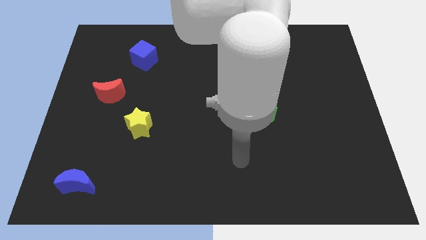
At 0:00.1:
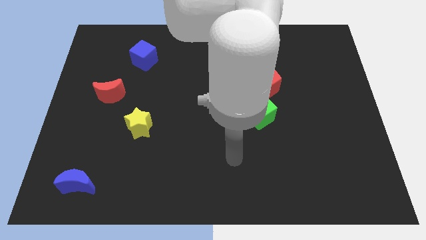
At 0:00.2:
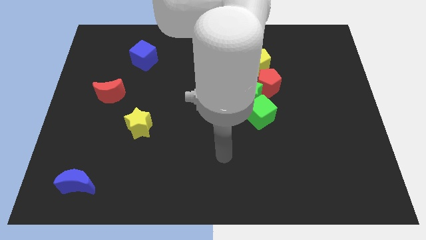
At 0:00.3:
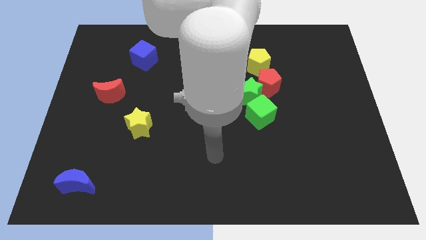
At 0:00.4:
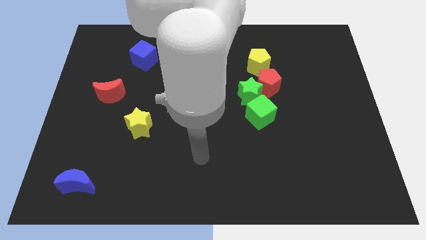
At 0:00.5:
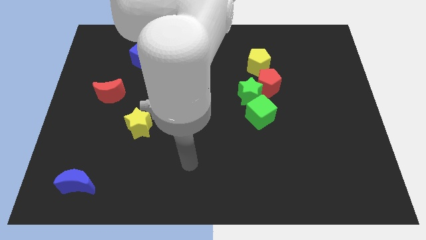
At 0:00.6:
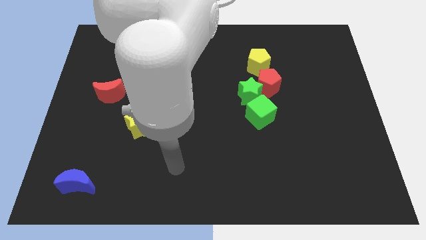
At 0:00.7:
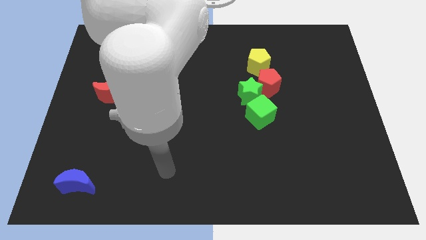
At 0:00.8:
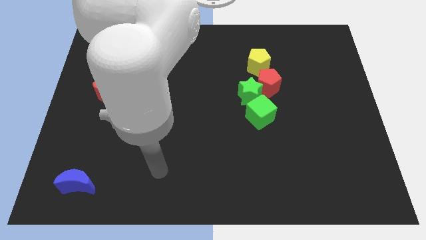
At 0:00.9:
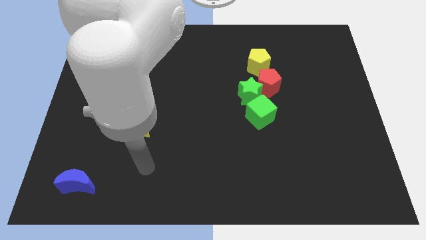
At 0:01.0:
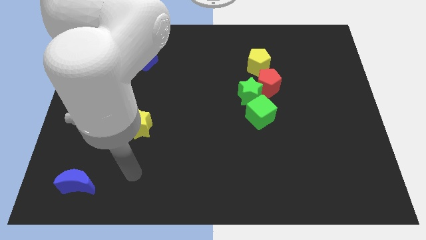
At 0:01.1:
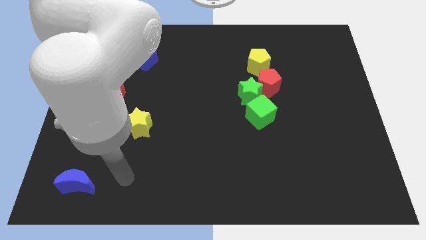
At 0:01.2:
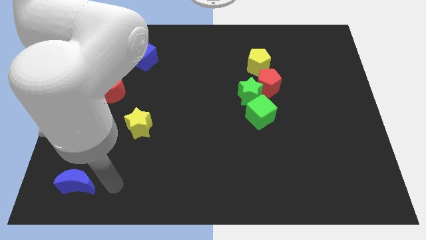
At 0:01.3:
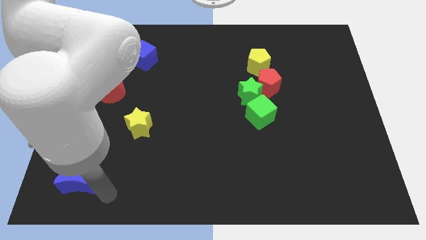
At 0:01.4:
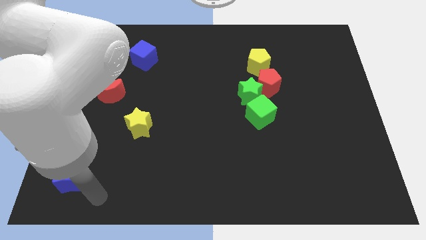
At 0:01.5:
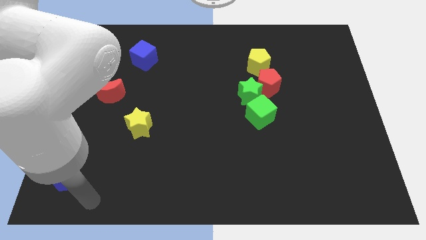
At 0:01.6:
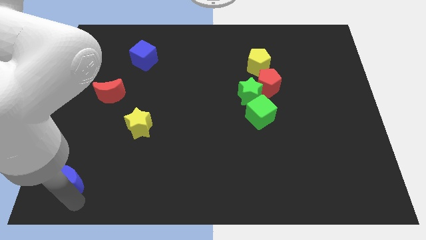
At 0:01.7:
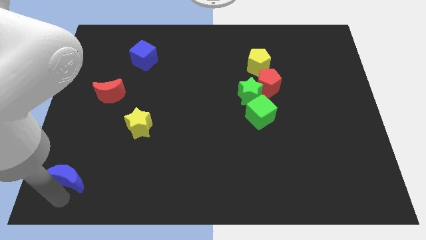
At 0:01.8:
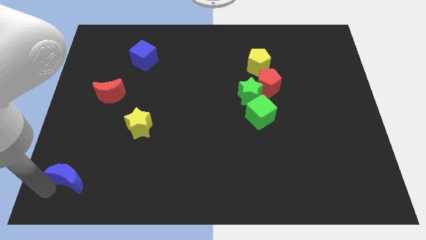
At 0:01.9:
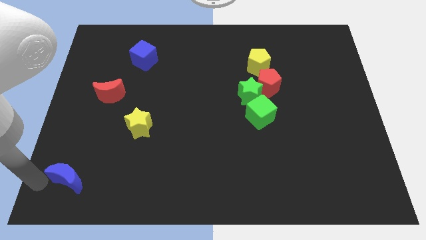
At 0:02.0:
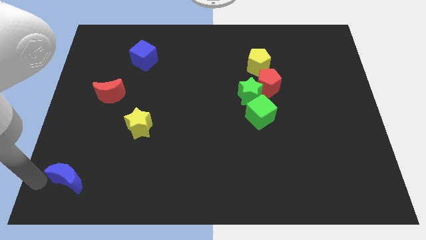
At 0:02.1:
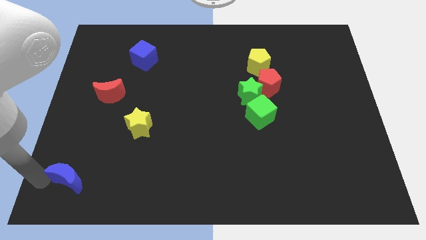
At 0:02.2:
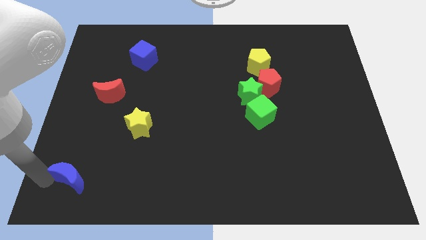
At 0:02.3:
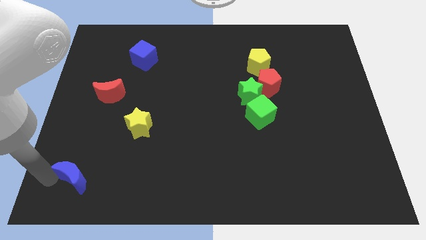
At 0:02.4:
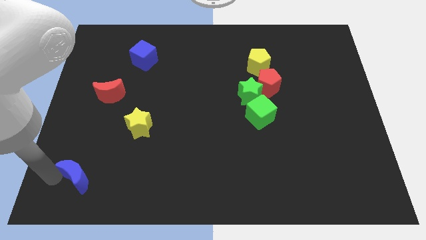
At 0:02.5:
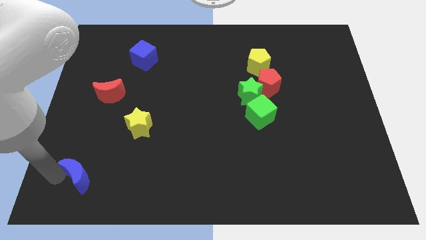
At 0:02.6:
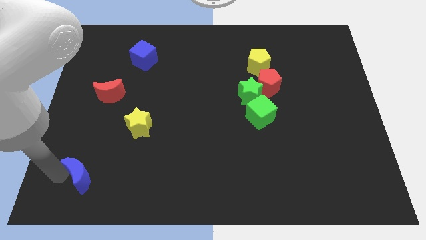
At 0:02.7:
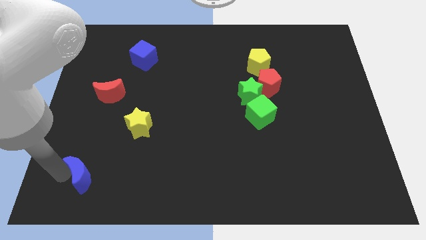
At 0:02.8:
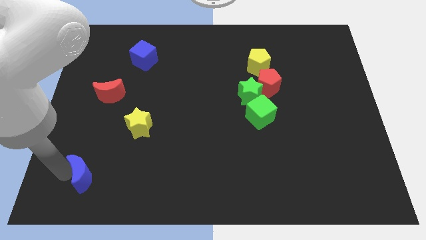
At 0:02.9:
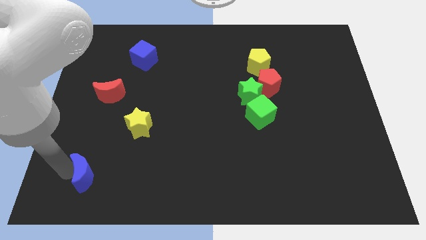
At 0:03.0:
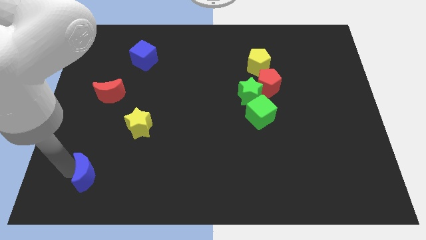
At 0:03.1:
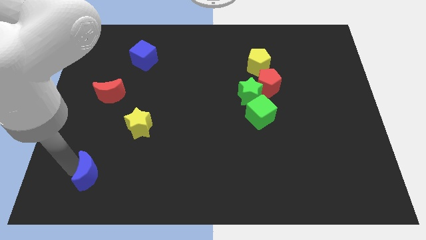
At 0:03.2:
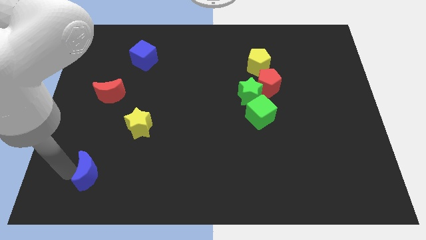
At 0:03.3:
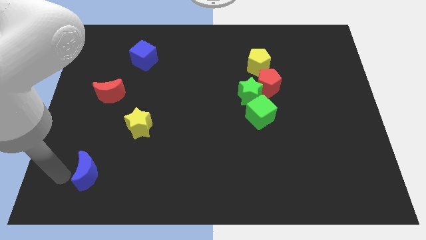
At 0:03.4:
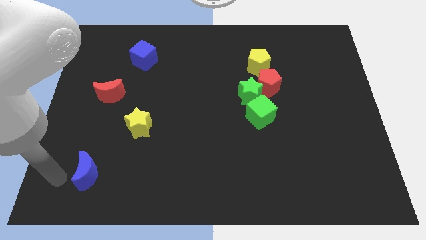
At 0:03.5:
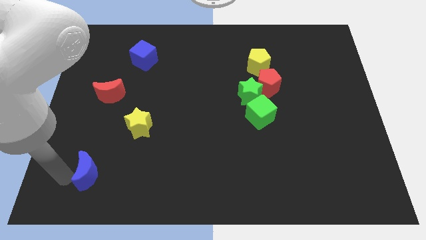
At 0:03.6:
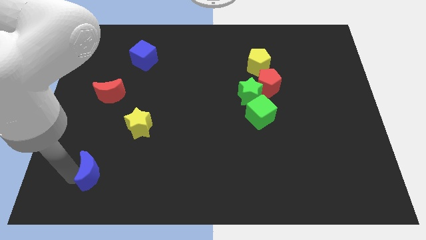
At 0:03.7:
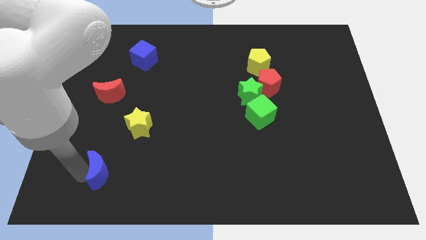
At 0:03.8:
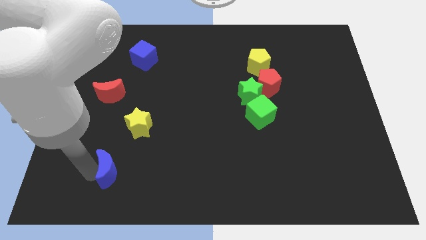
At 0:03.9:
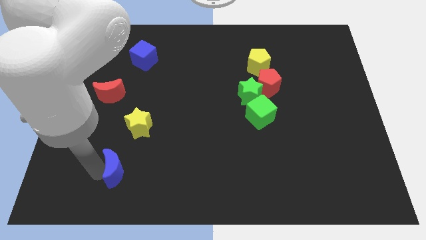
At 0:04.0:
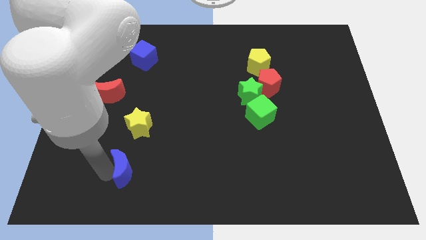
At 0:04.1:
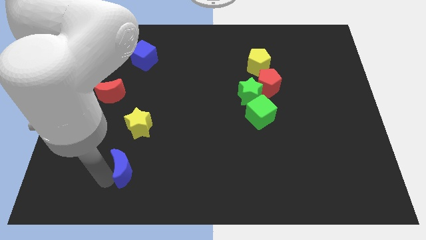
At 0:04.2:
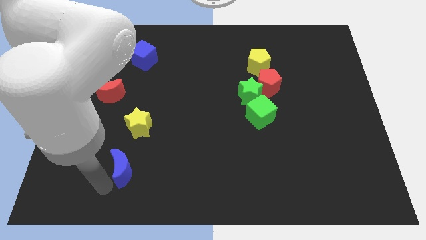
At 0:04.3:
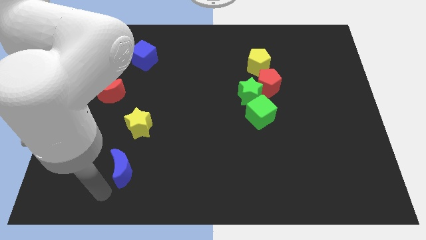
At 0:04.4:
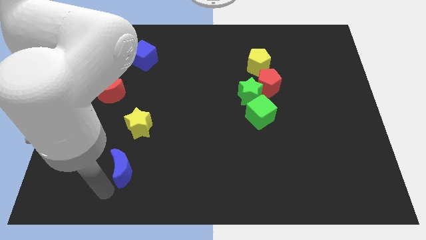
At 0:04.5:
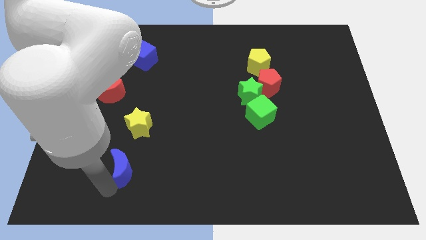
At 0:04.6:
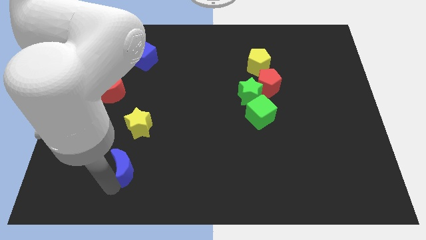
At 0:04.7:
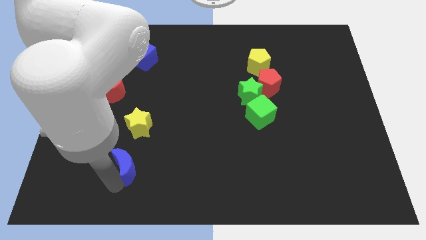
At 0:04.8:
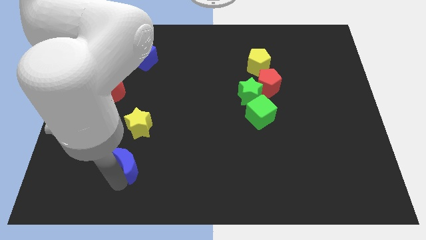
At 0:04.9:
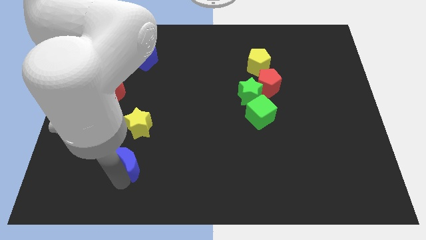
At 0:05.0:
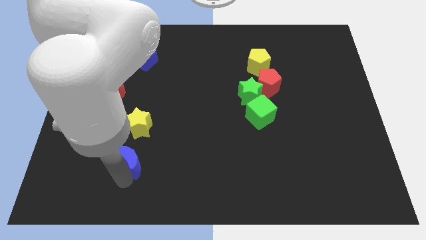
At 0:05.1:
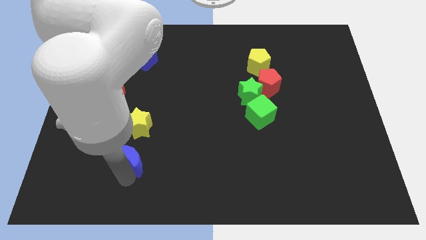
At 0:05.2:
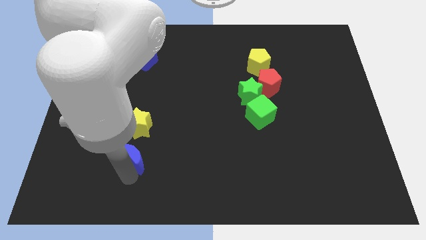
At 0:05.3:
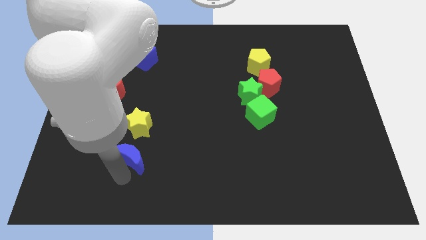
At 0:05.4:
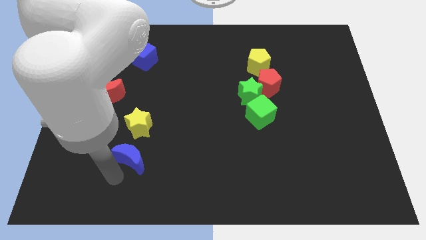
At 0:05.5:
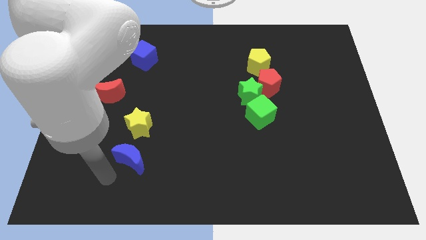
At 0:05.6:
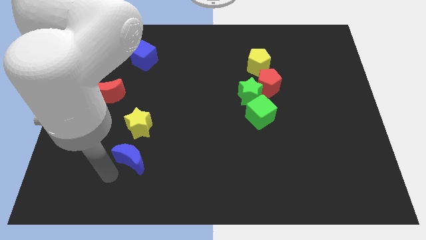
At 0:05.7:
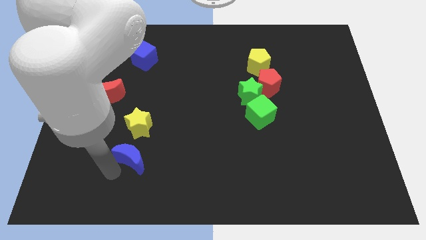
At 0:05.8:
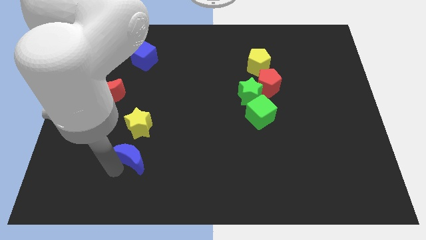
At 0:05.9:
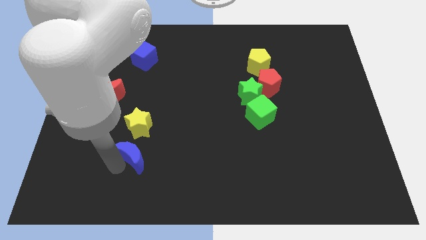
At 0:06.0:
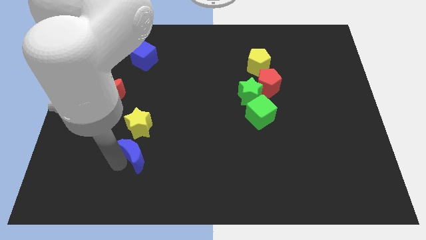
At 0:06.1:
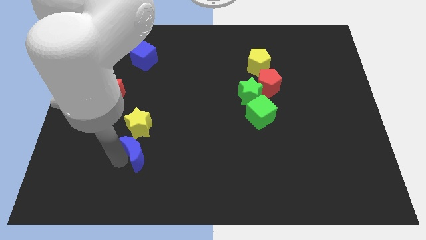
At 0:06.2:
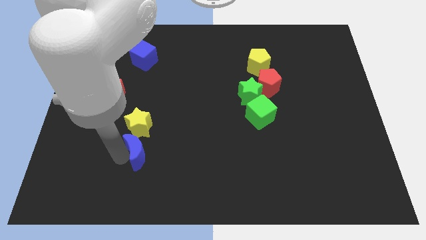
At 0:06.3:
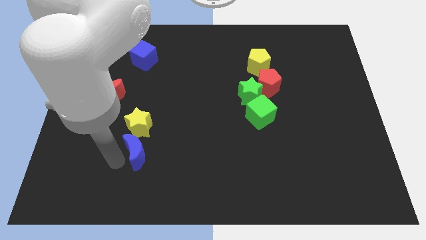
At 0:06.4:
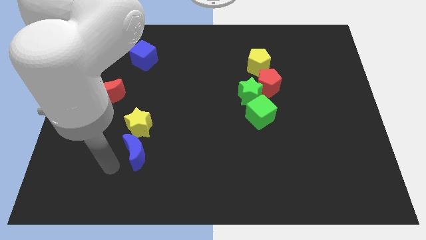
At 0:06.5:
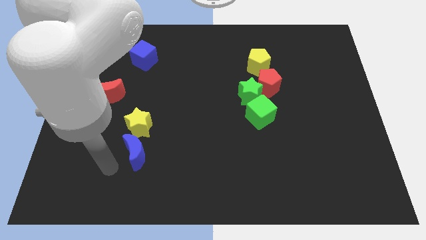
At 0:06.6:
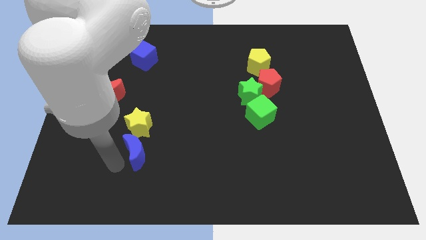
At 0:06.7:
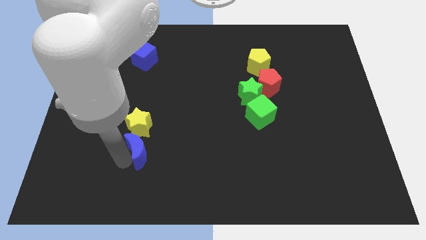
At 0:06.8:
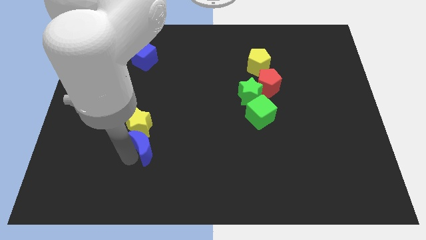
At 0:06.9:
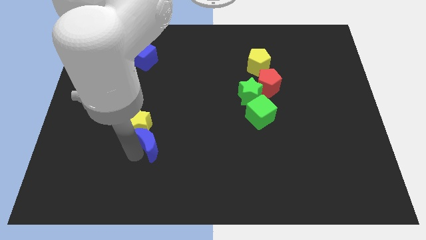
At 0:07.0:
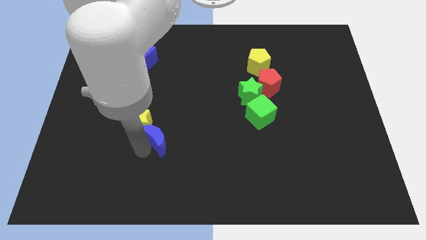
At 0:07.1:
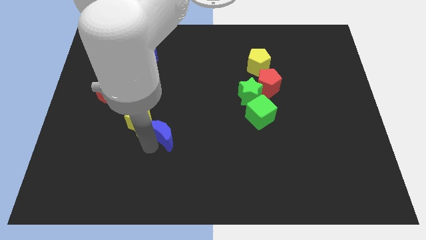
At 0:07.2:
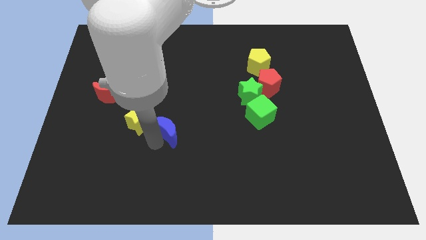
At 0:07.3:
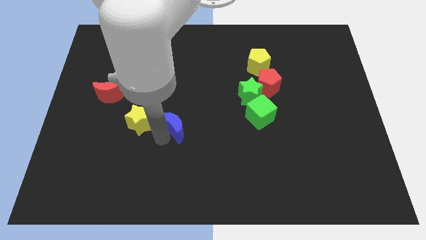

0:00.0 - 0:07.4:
push the blue moon to the center
